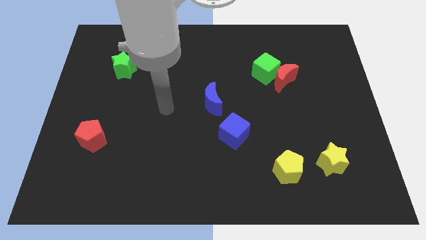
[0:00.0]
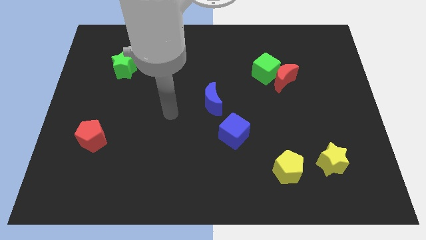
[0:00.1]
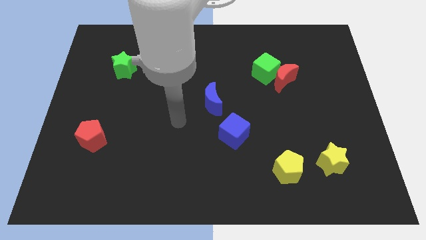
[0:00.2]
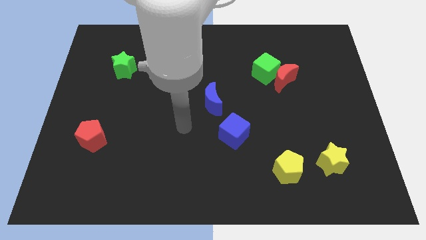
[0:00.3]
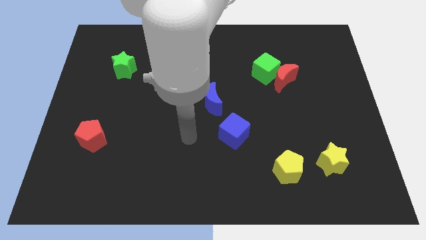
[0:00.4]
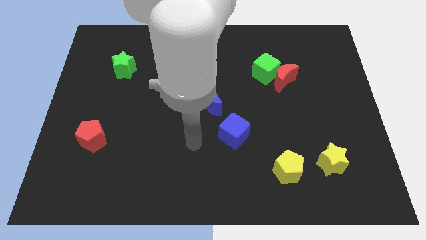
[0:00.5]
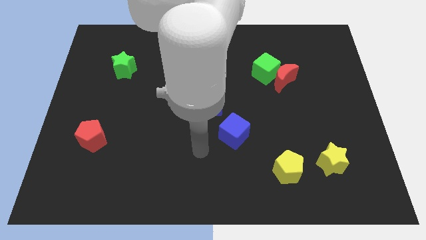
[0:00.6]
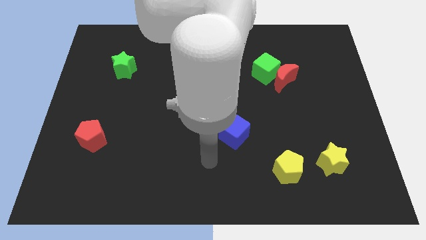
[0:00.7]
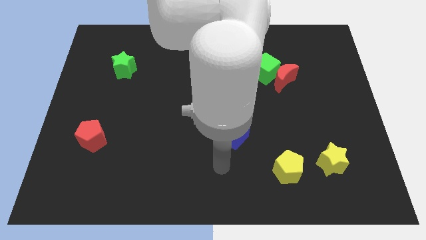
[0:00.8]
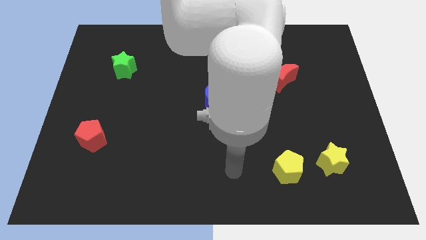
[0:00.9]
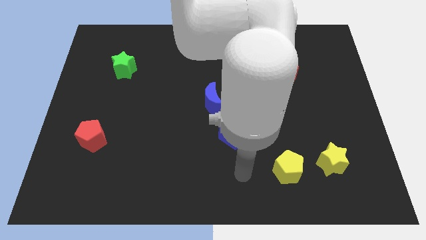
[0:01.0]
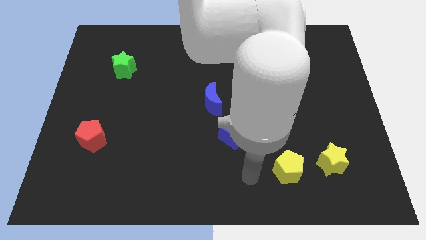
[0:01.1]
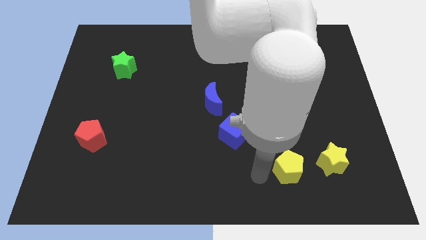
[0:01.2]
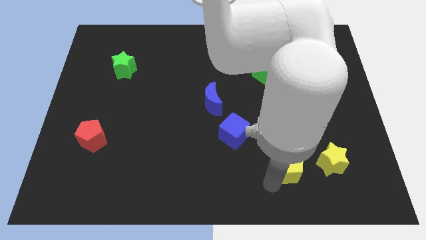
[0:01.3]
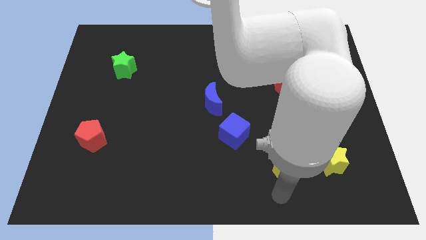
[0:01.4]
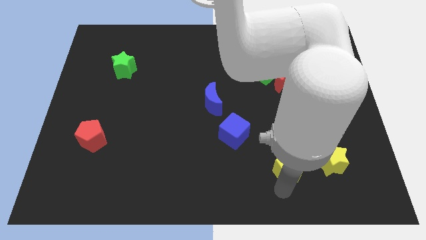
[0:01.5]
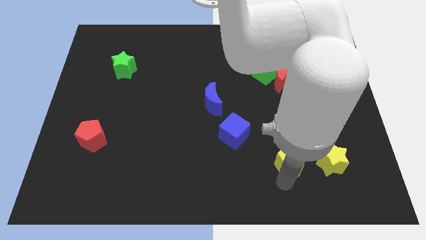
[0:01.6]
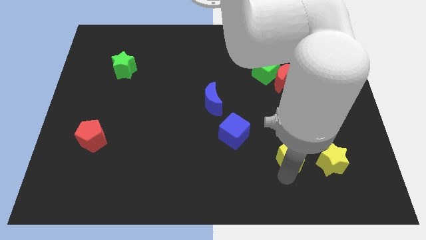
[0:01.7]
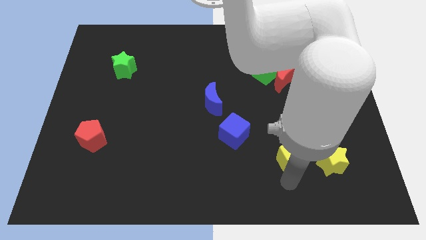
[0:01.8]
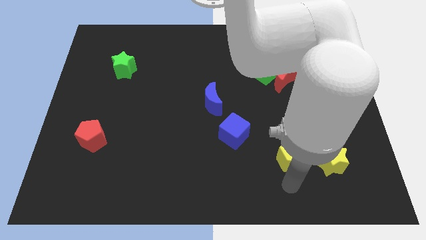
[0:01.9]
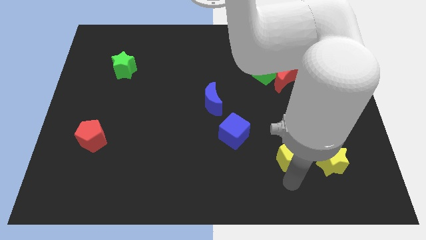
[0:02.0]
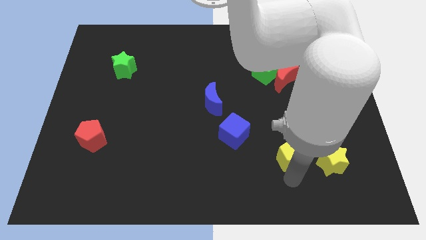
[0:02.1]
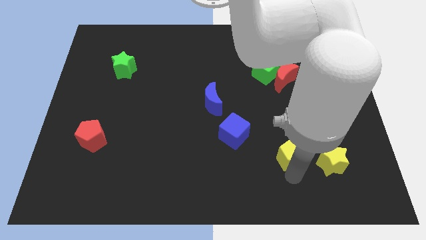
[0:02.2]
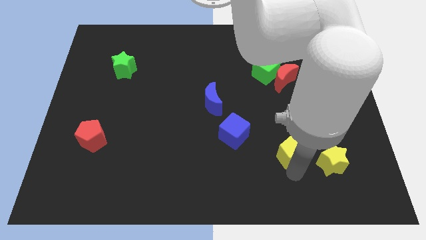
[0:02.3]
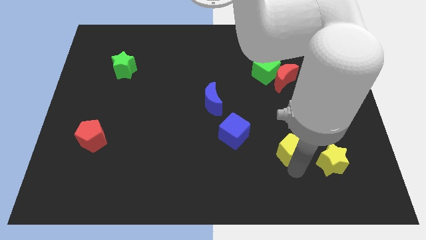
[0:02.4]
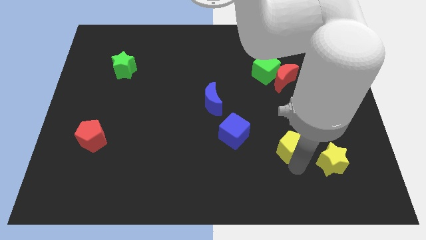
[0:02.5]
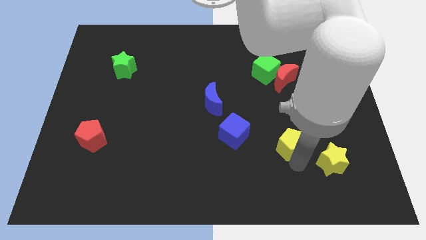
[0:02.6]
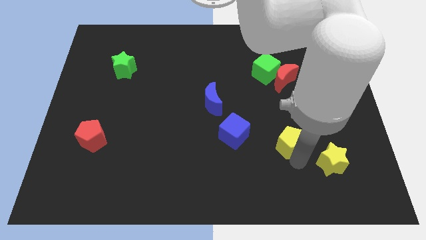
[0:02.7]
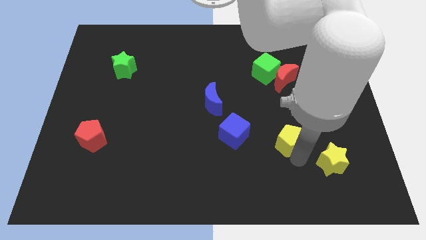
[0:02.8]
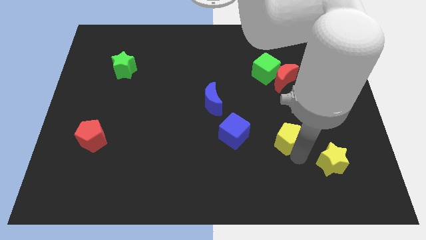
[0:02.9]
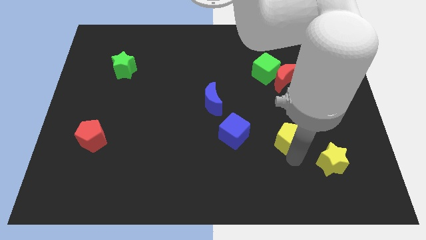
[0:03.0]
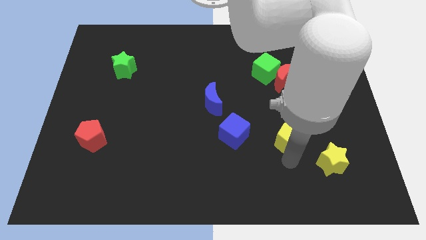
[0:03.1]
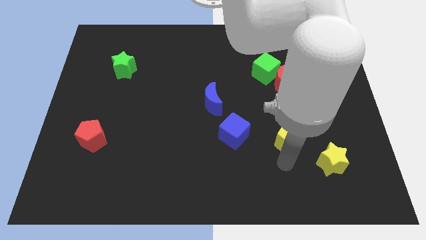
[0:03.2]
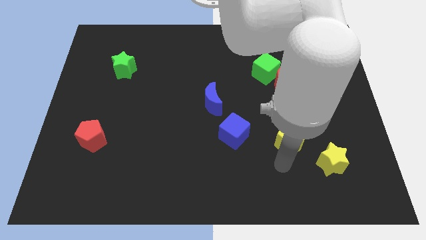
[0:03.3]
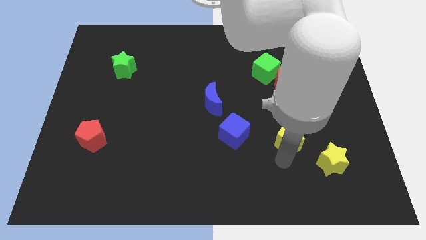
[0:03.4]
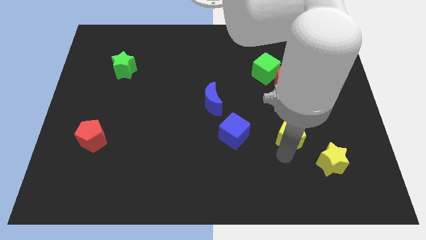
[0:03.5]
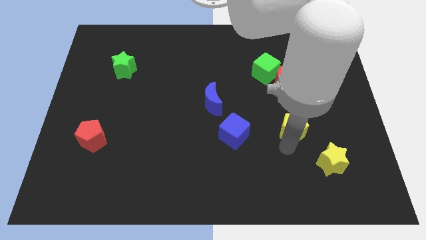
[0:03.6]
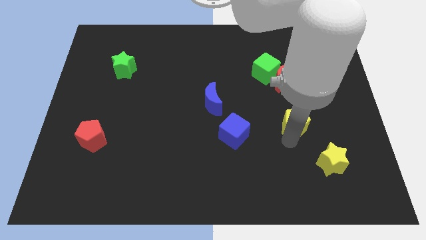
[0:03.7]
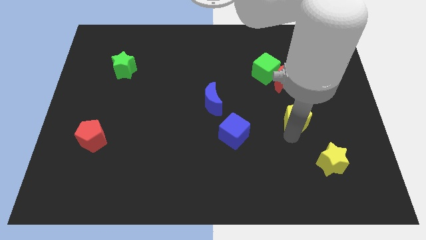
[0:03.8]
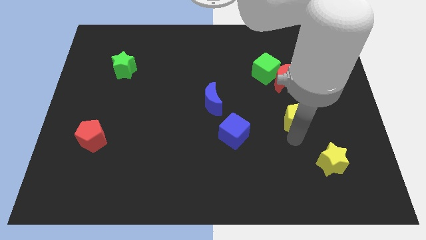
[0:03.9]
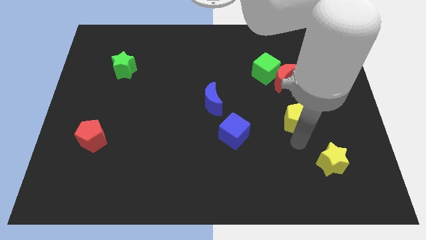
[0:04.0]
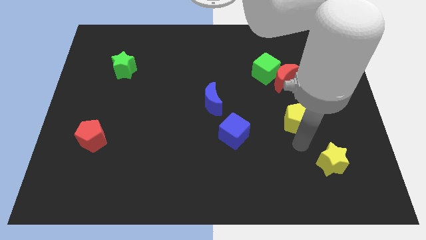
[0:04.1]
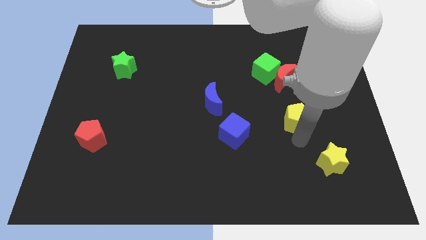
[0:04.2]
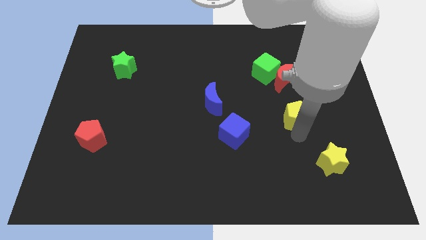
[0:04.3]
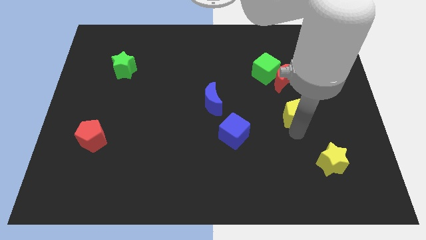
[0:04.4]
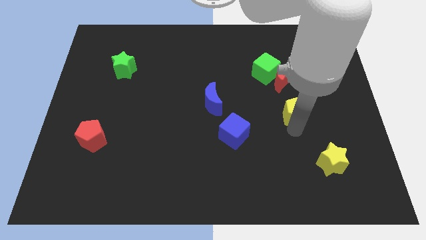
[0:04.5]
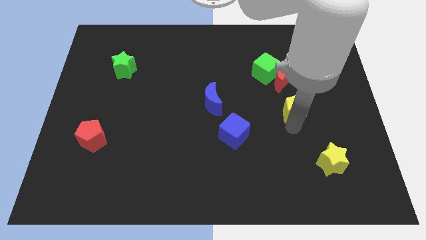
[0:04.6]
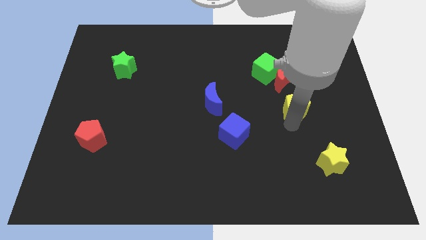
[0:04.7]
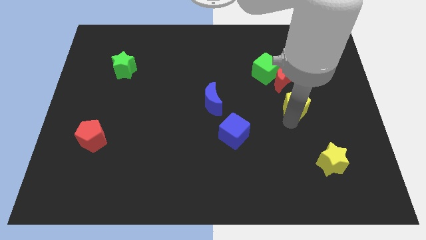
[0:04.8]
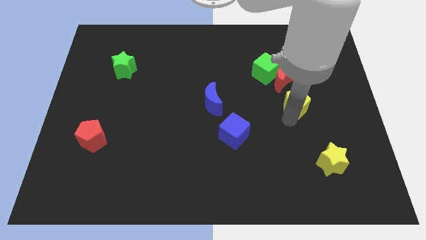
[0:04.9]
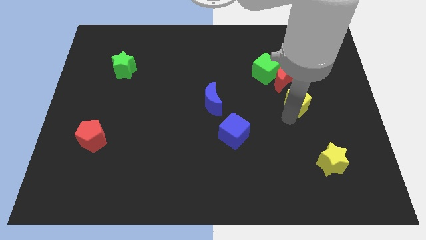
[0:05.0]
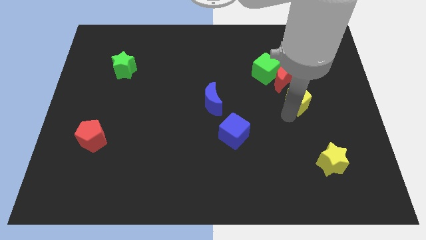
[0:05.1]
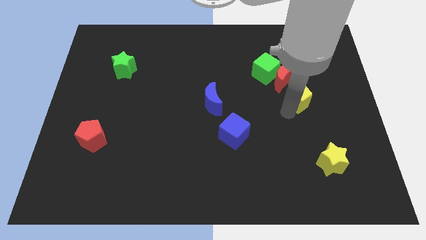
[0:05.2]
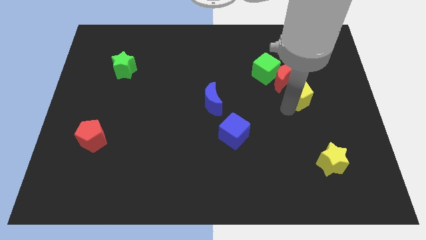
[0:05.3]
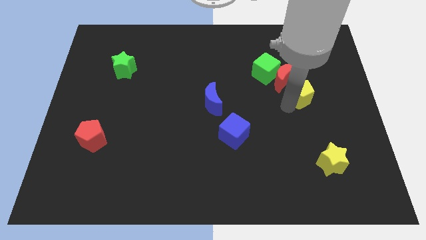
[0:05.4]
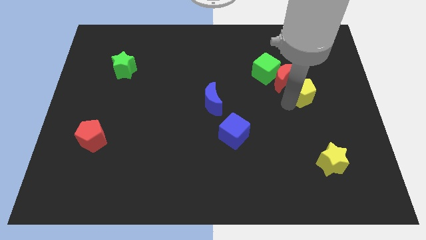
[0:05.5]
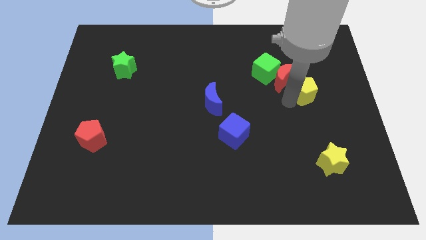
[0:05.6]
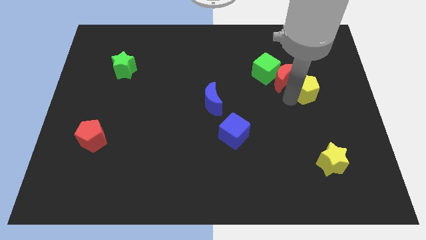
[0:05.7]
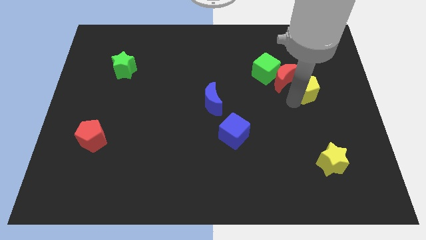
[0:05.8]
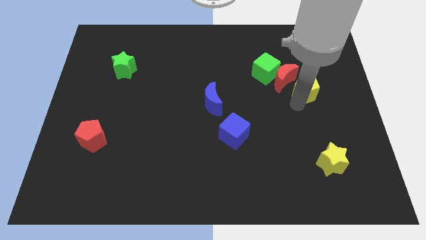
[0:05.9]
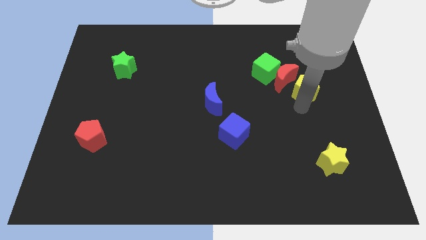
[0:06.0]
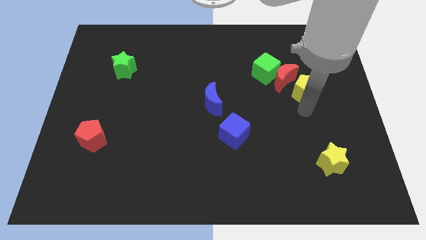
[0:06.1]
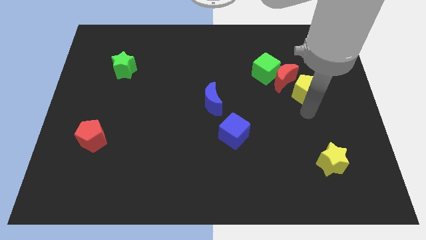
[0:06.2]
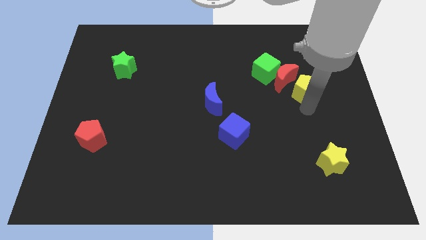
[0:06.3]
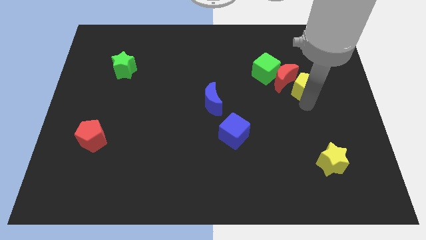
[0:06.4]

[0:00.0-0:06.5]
move the yellow pentagon up

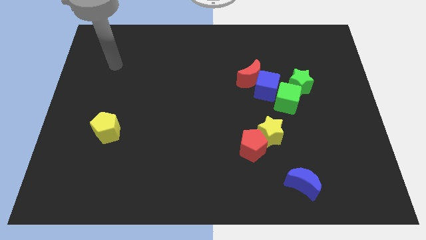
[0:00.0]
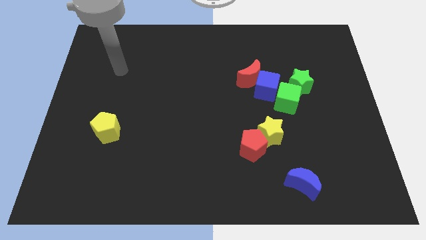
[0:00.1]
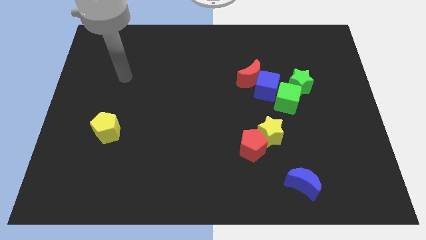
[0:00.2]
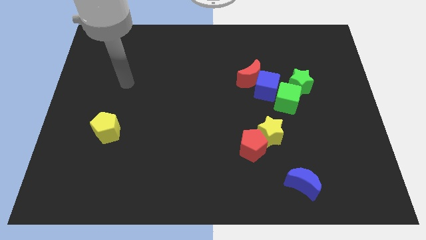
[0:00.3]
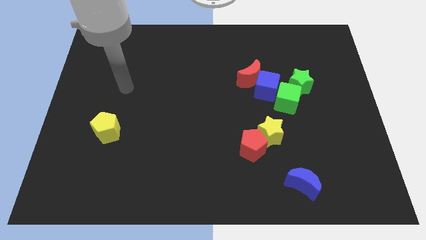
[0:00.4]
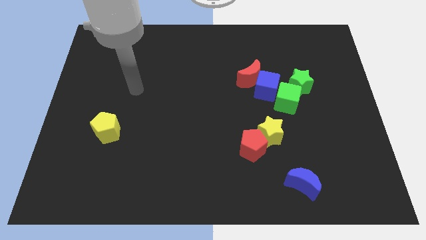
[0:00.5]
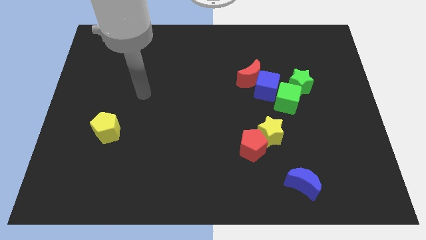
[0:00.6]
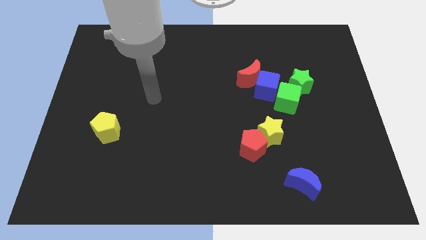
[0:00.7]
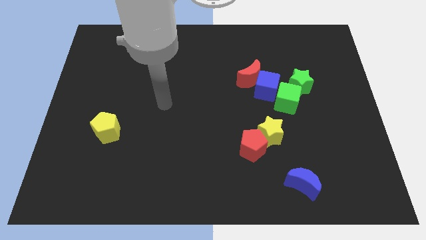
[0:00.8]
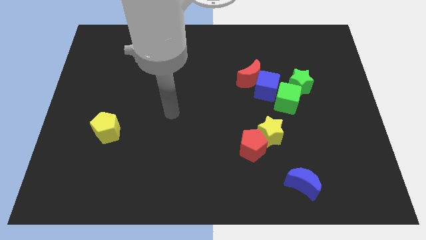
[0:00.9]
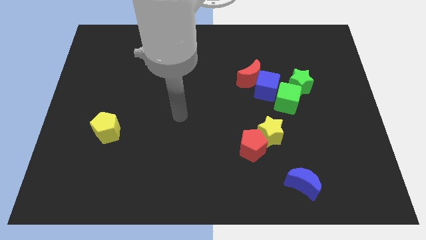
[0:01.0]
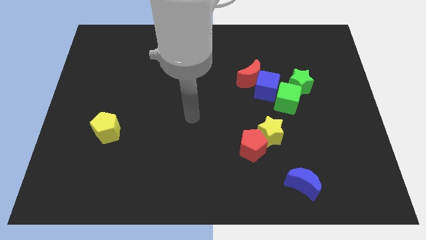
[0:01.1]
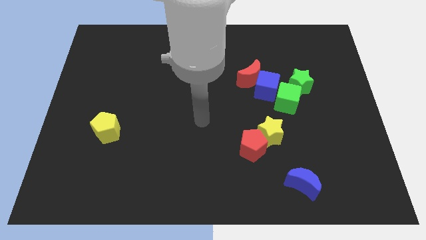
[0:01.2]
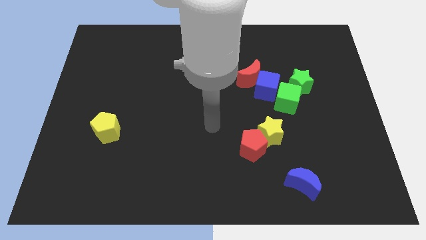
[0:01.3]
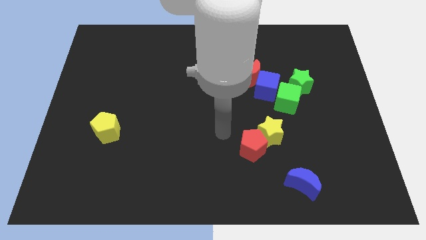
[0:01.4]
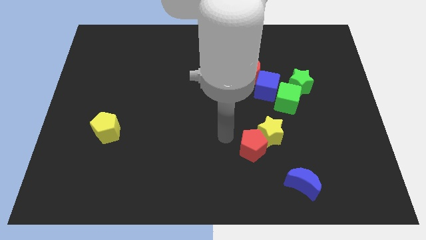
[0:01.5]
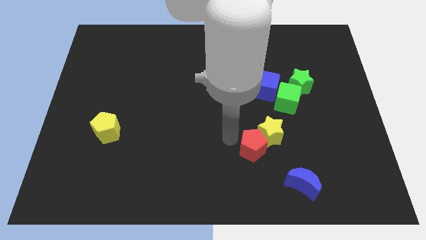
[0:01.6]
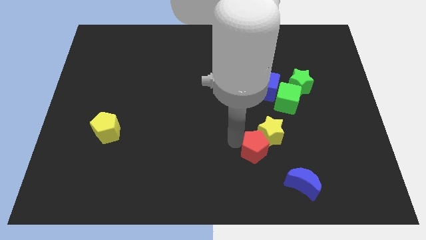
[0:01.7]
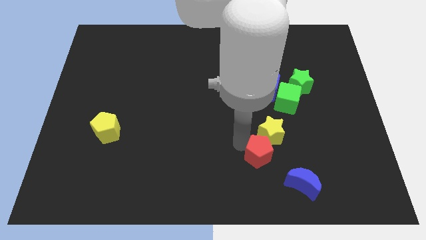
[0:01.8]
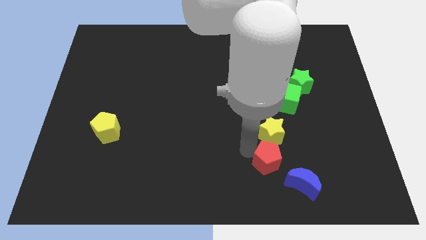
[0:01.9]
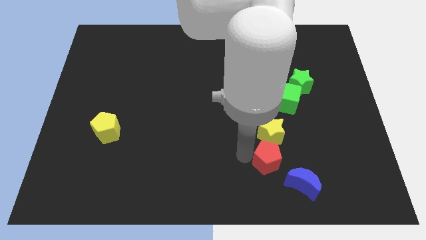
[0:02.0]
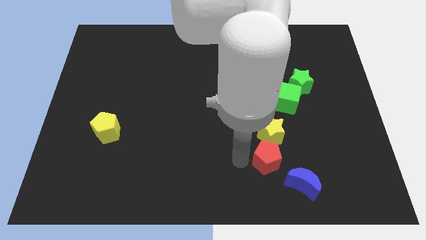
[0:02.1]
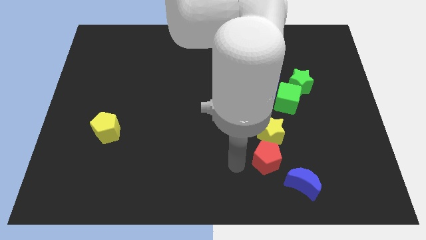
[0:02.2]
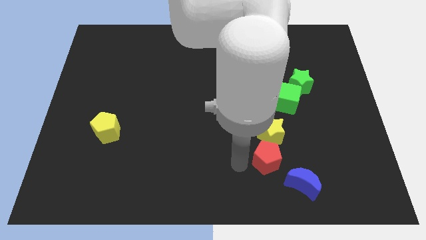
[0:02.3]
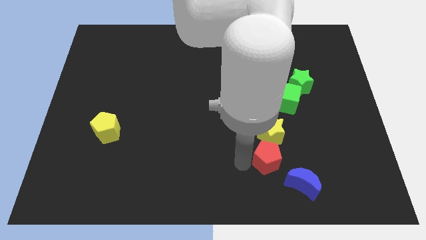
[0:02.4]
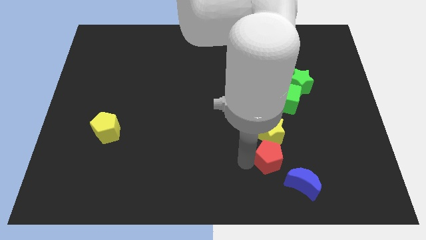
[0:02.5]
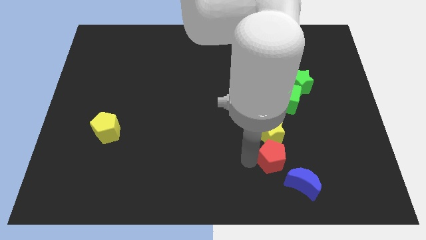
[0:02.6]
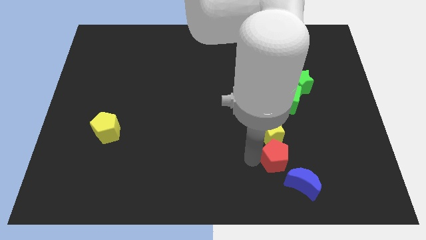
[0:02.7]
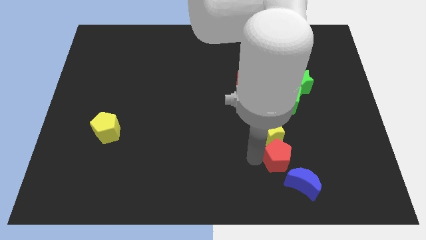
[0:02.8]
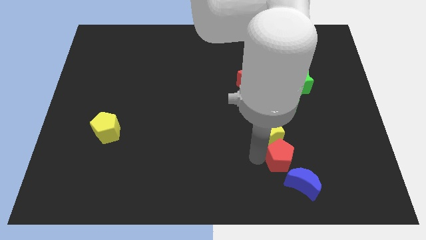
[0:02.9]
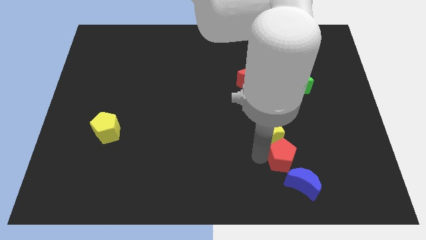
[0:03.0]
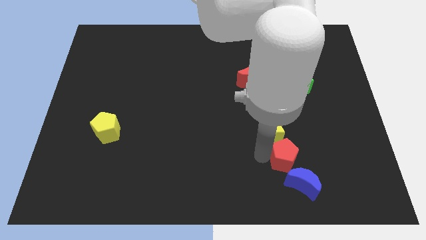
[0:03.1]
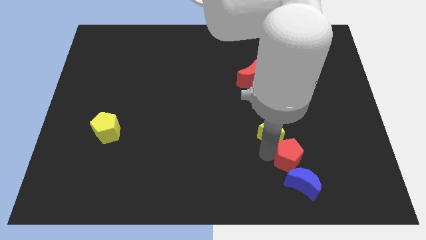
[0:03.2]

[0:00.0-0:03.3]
push the red pentagon a bit right
